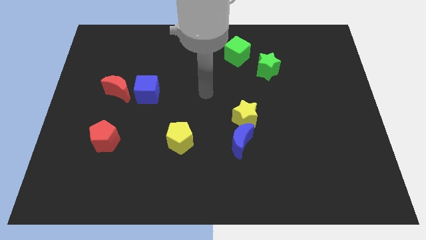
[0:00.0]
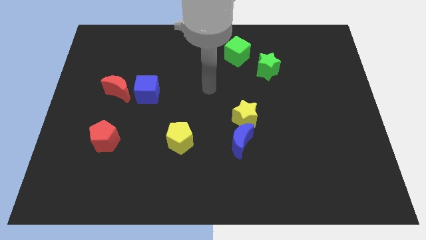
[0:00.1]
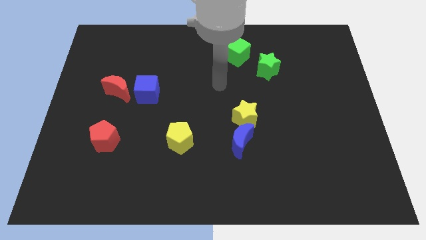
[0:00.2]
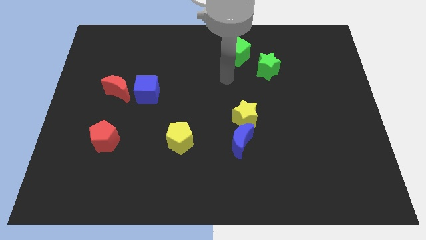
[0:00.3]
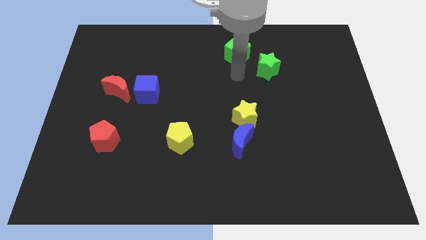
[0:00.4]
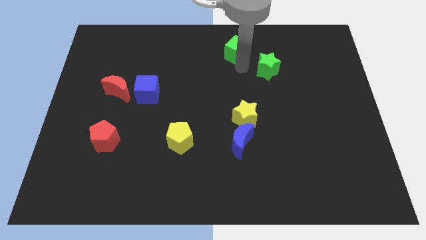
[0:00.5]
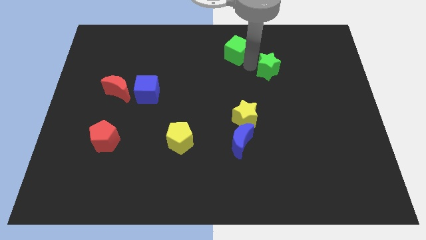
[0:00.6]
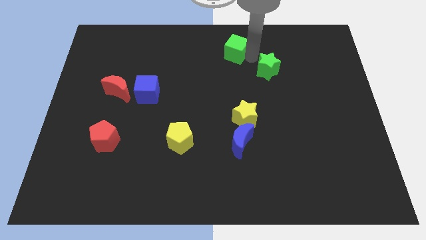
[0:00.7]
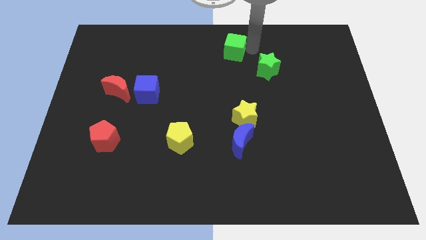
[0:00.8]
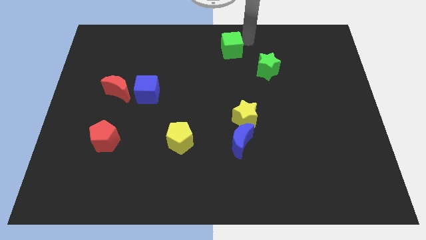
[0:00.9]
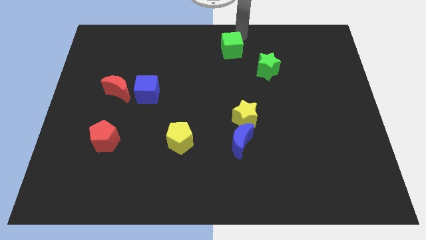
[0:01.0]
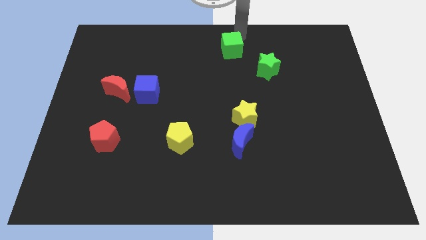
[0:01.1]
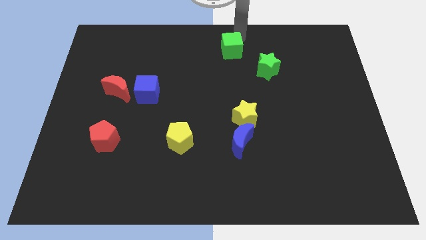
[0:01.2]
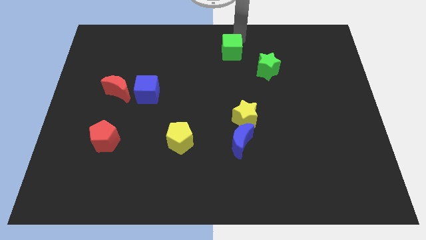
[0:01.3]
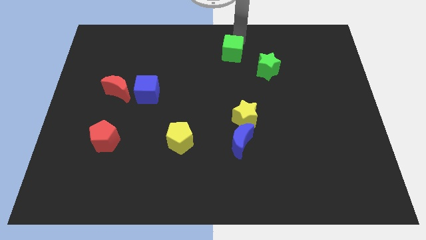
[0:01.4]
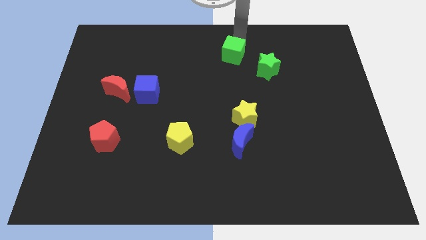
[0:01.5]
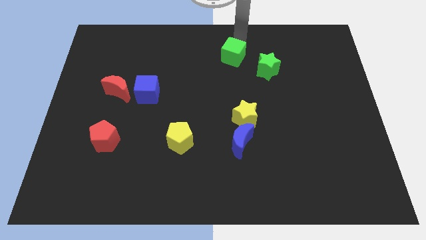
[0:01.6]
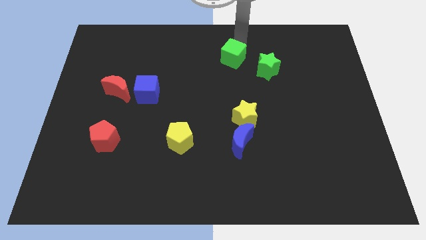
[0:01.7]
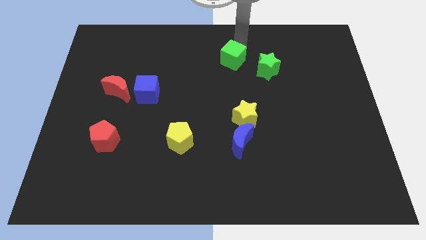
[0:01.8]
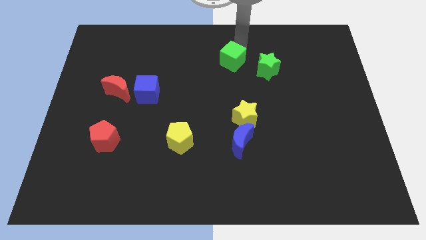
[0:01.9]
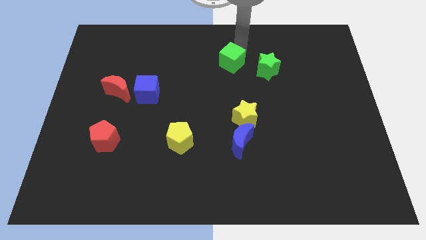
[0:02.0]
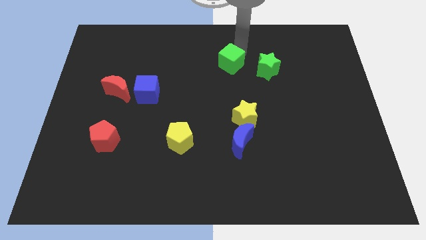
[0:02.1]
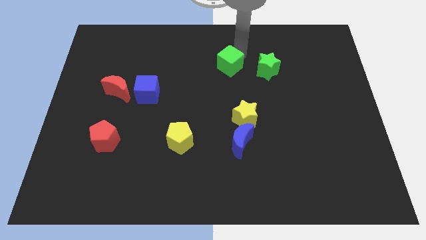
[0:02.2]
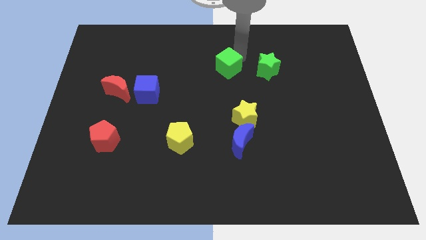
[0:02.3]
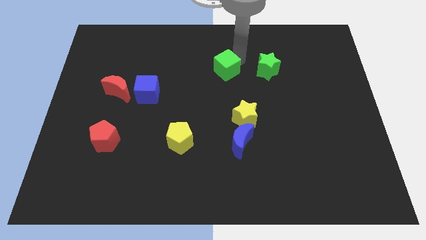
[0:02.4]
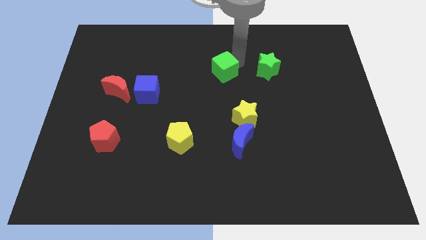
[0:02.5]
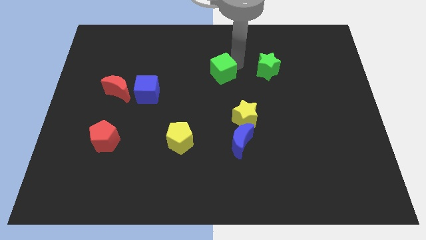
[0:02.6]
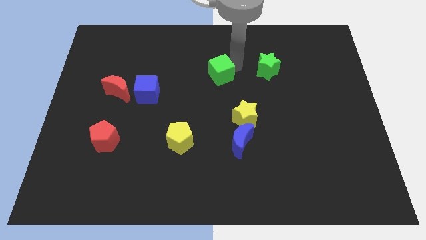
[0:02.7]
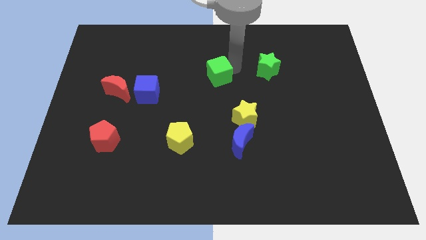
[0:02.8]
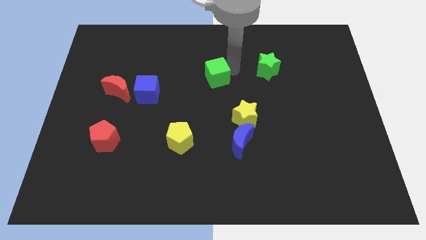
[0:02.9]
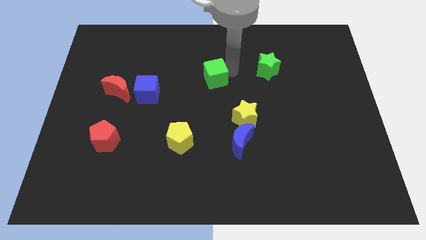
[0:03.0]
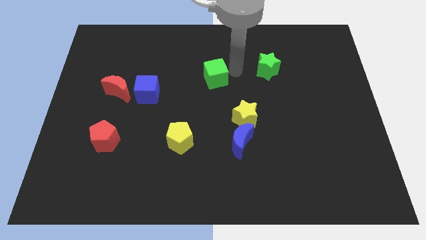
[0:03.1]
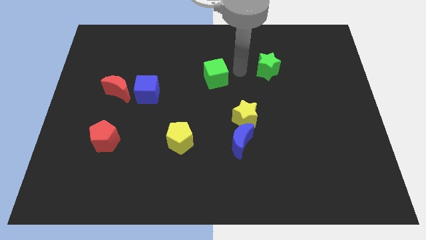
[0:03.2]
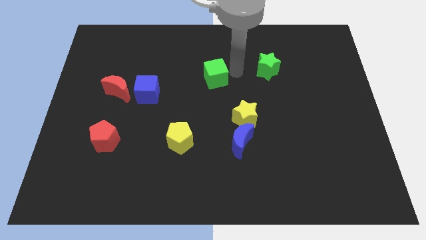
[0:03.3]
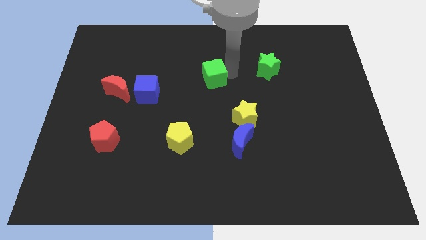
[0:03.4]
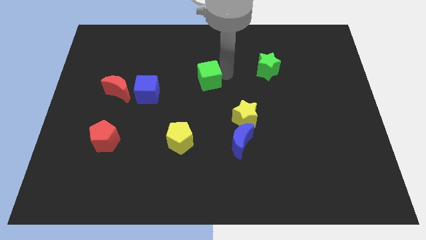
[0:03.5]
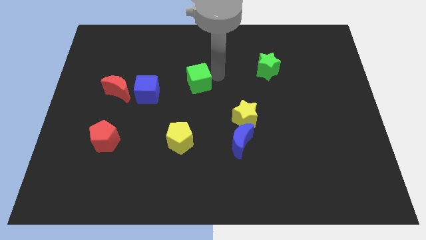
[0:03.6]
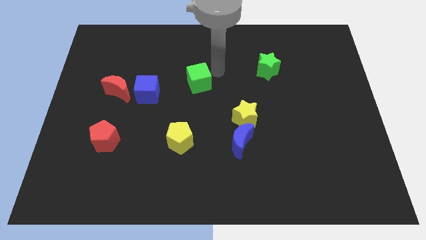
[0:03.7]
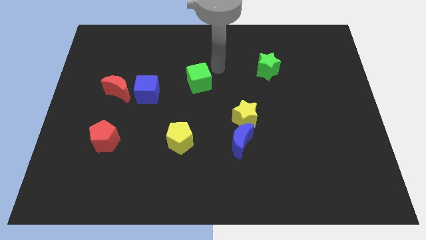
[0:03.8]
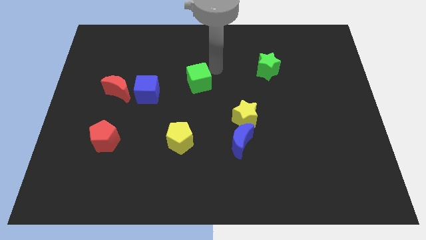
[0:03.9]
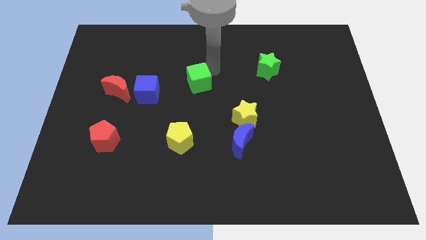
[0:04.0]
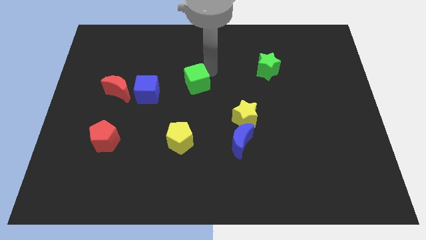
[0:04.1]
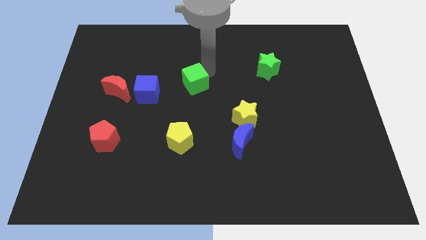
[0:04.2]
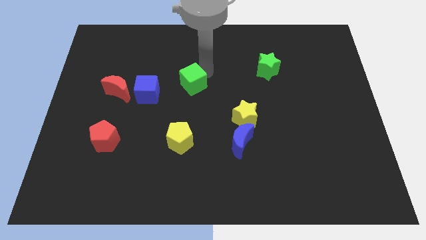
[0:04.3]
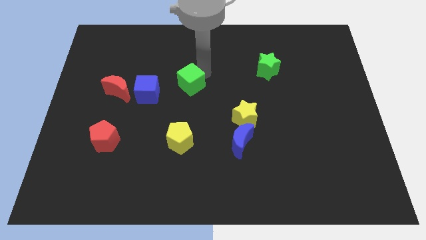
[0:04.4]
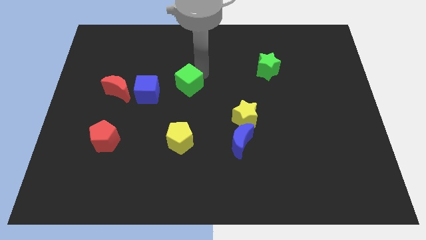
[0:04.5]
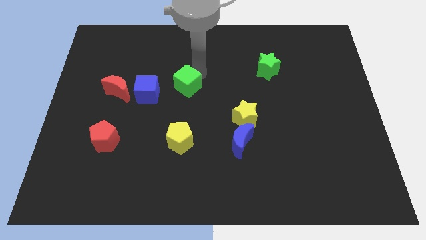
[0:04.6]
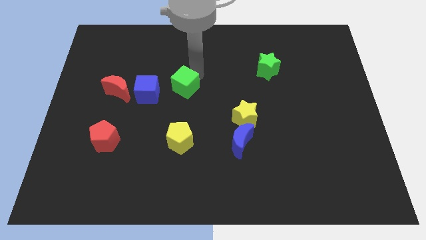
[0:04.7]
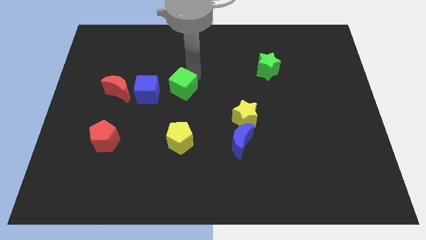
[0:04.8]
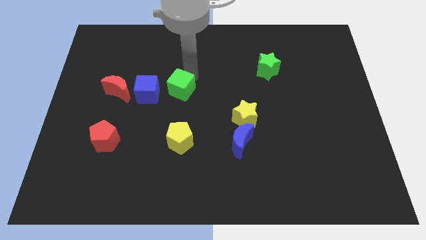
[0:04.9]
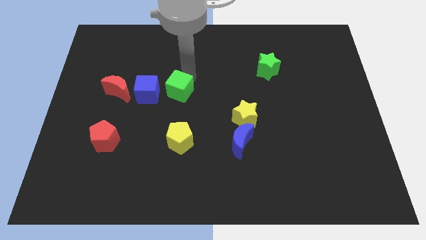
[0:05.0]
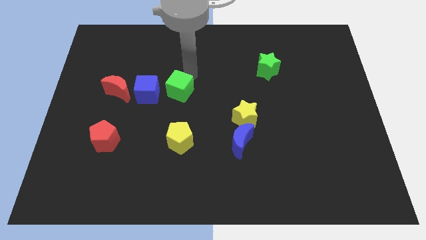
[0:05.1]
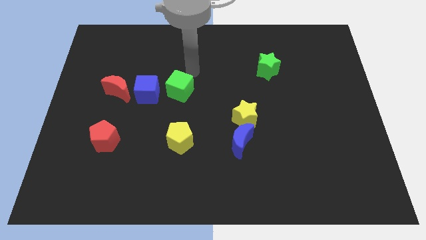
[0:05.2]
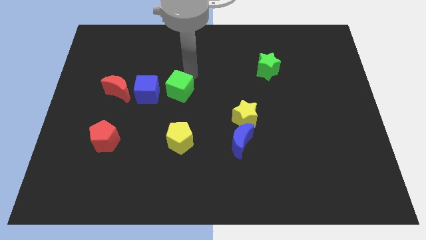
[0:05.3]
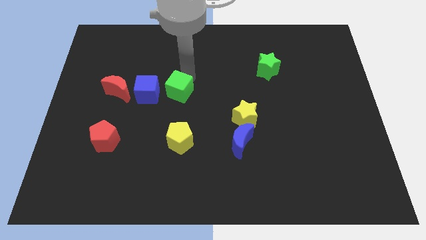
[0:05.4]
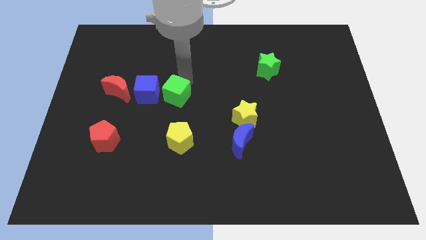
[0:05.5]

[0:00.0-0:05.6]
move the green cube down and then to the left

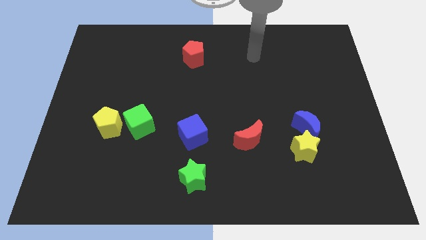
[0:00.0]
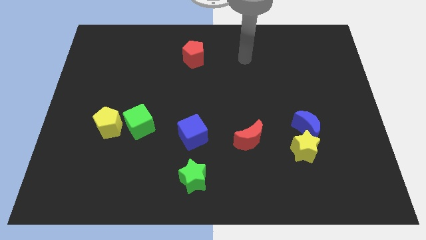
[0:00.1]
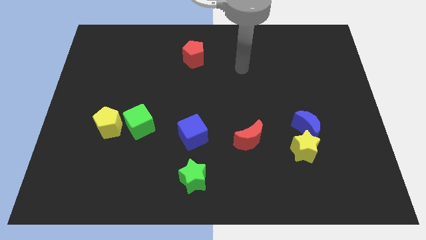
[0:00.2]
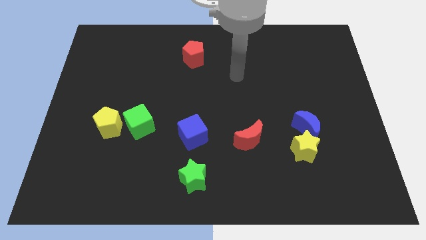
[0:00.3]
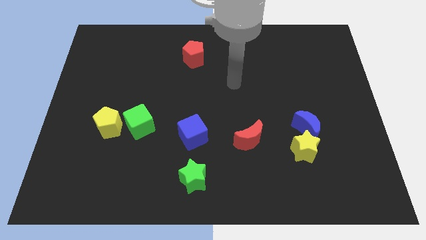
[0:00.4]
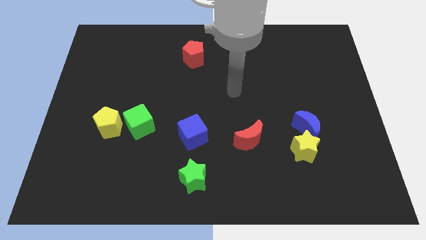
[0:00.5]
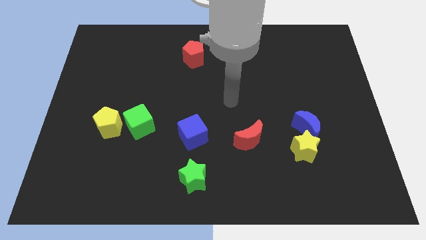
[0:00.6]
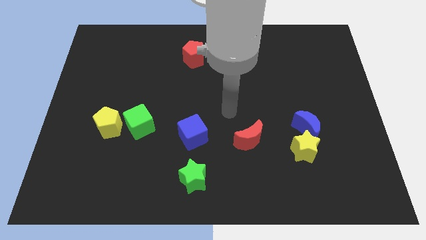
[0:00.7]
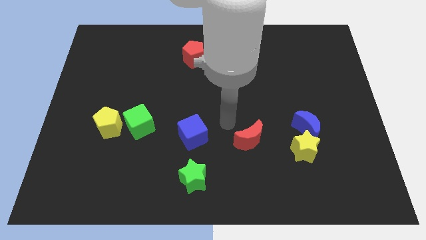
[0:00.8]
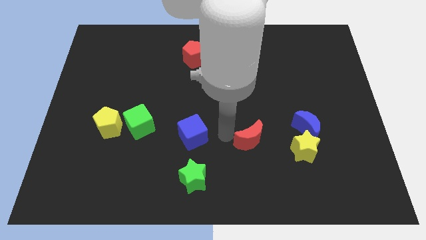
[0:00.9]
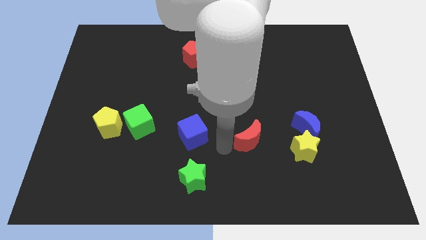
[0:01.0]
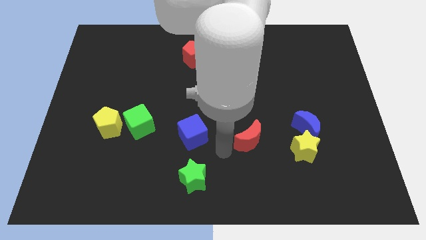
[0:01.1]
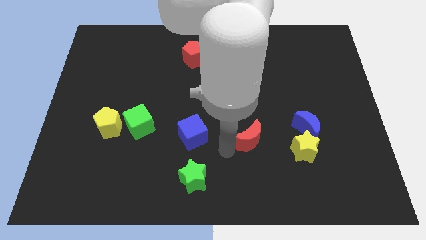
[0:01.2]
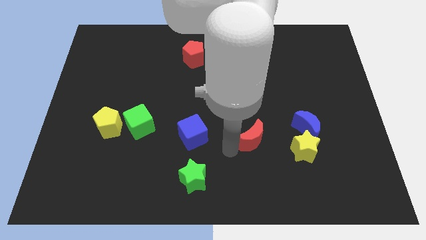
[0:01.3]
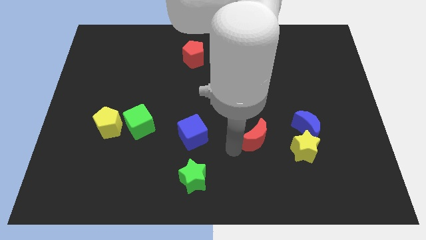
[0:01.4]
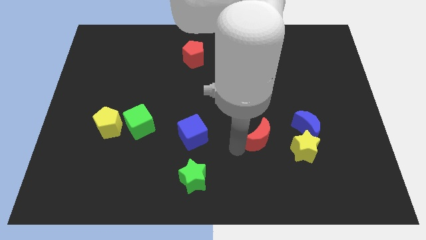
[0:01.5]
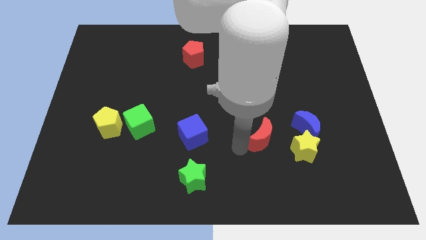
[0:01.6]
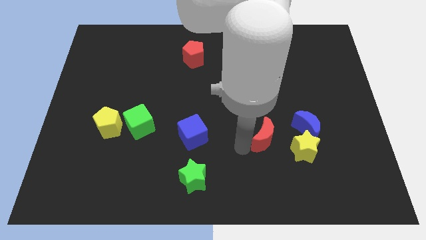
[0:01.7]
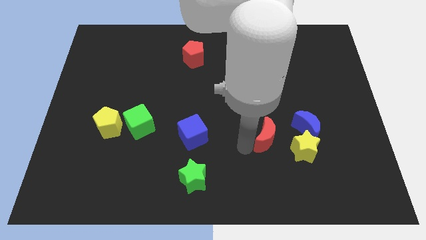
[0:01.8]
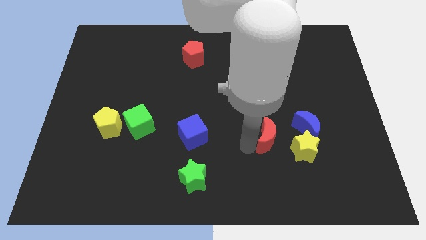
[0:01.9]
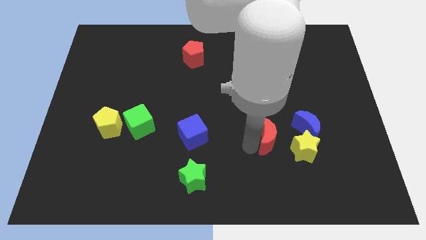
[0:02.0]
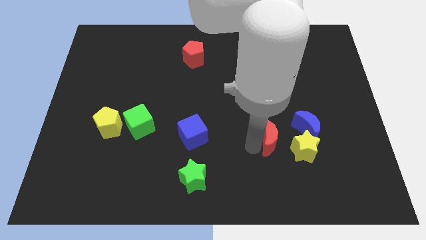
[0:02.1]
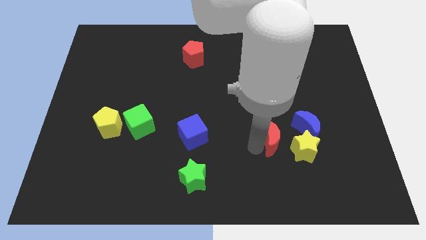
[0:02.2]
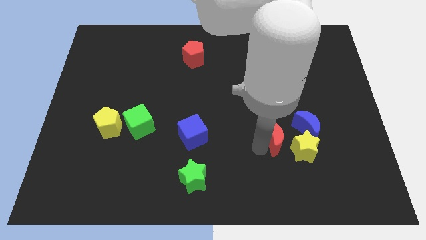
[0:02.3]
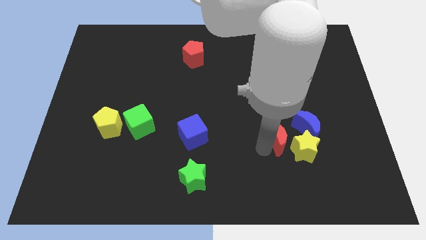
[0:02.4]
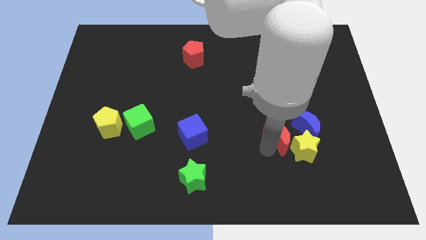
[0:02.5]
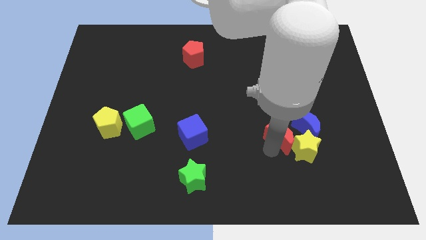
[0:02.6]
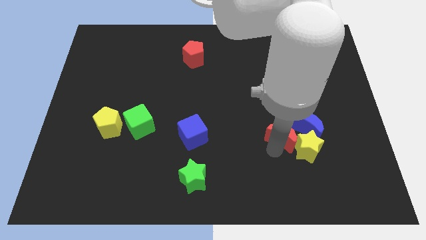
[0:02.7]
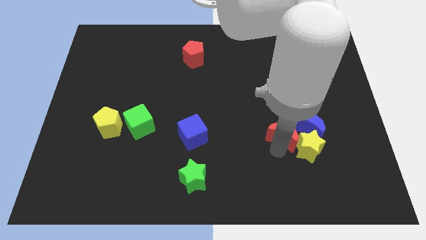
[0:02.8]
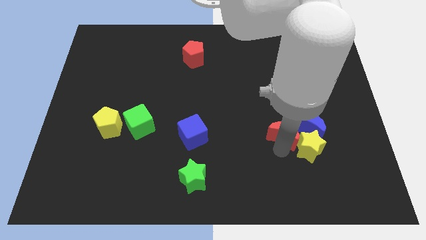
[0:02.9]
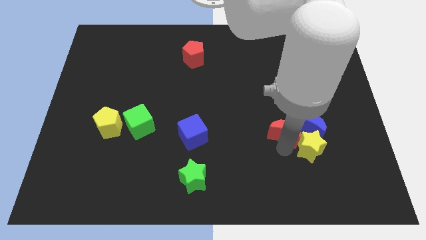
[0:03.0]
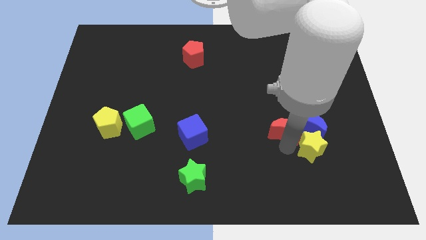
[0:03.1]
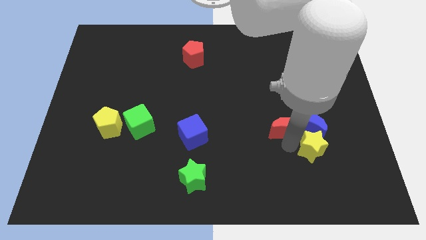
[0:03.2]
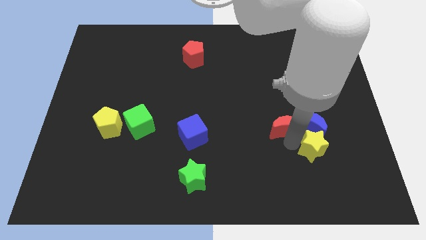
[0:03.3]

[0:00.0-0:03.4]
slightly move the red moon upwards and to the right diagonally
